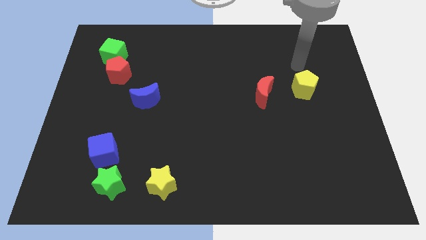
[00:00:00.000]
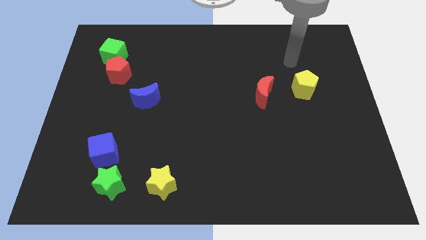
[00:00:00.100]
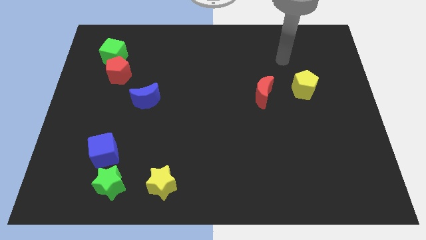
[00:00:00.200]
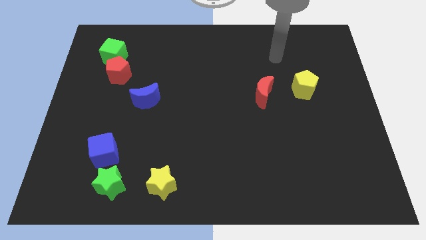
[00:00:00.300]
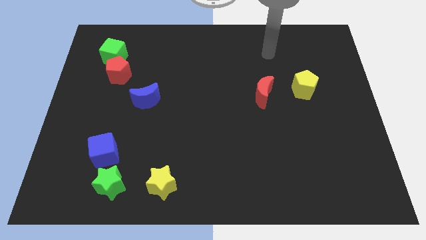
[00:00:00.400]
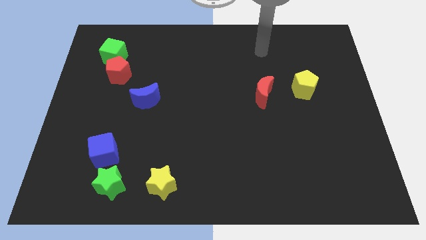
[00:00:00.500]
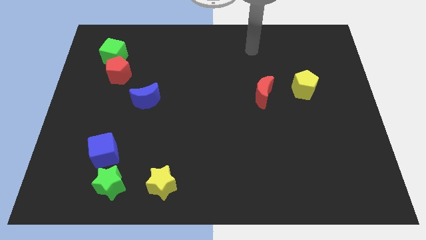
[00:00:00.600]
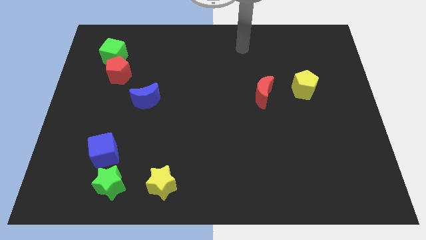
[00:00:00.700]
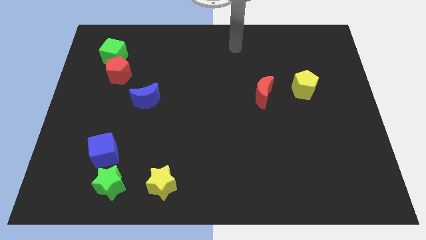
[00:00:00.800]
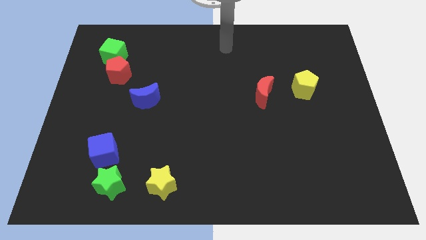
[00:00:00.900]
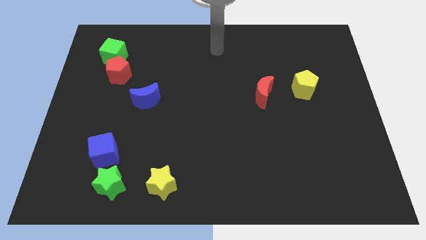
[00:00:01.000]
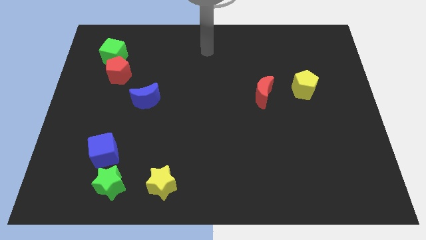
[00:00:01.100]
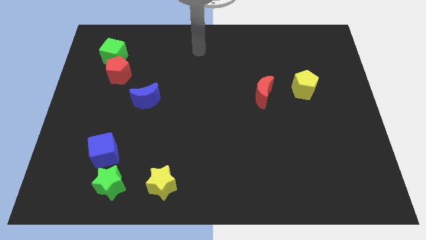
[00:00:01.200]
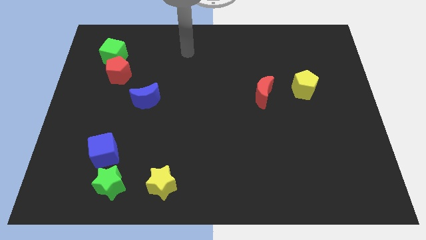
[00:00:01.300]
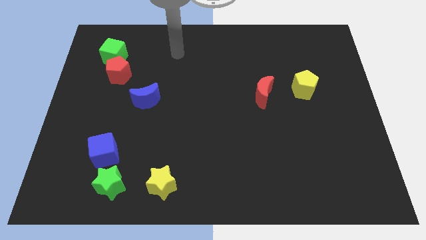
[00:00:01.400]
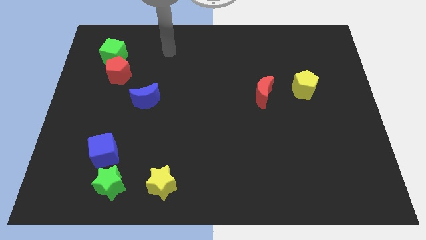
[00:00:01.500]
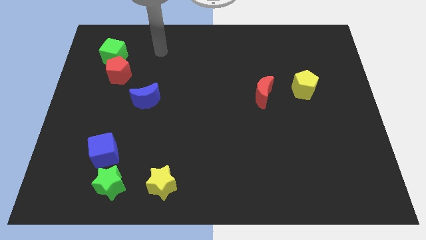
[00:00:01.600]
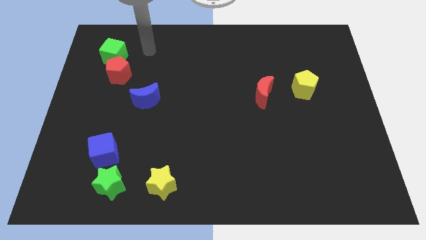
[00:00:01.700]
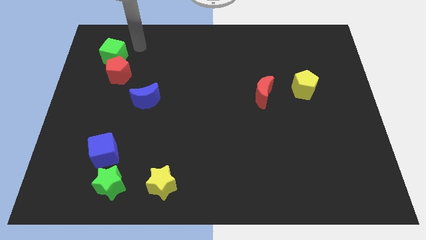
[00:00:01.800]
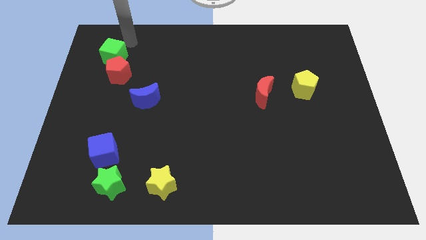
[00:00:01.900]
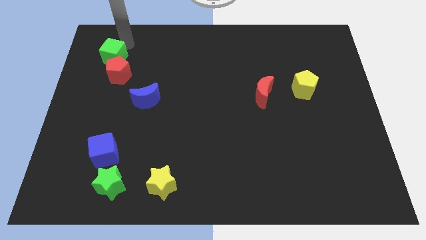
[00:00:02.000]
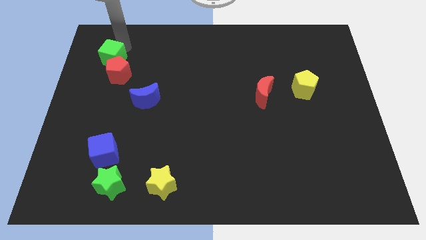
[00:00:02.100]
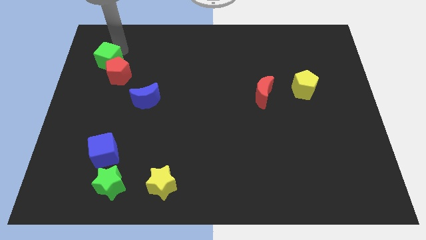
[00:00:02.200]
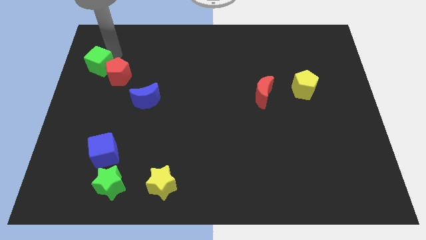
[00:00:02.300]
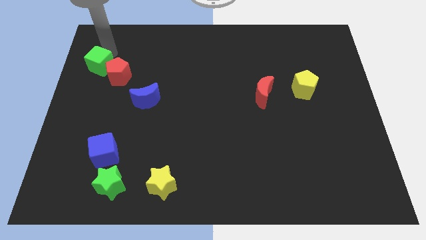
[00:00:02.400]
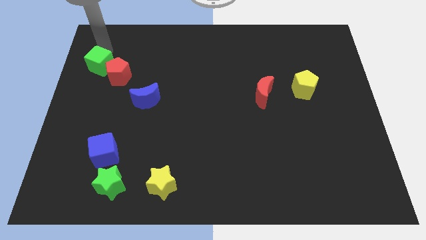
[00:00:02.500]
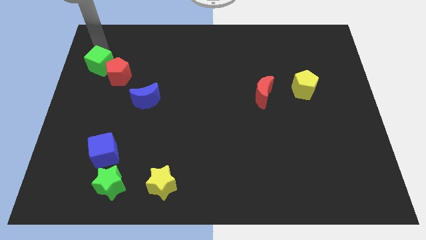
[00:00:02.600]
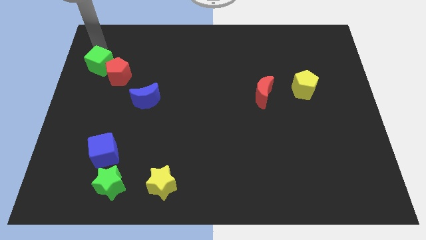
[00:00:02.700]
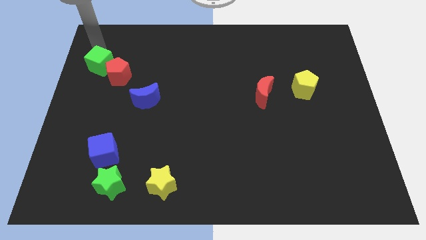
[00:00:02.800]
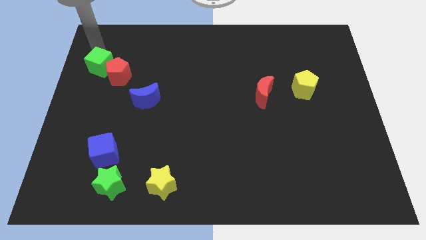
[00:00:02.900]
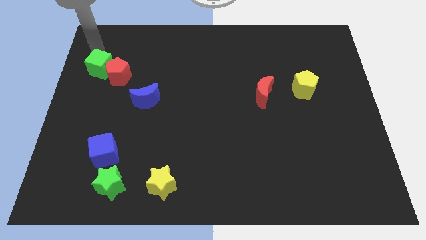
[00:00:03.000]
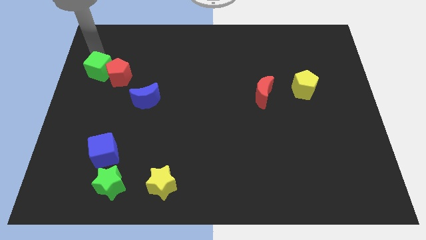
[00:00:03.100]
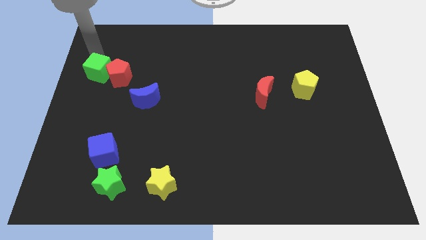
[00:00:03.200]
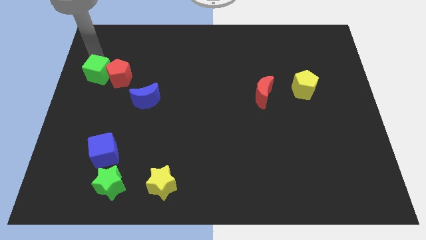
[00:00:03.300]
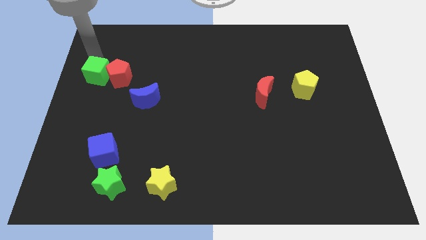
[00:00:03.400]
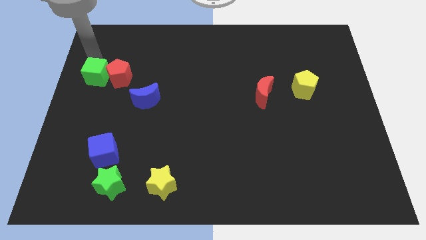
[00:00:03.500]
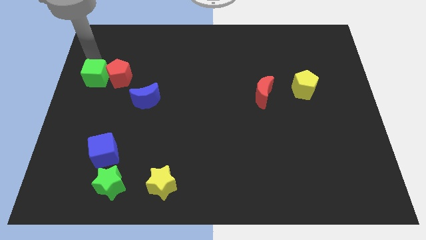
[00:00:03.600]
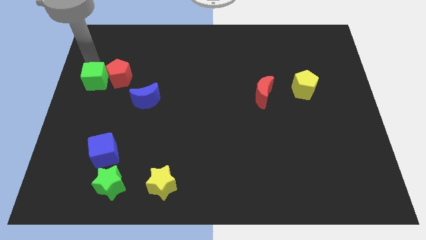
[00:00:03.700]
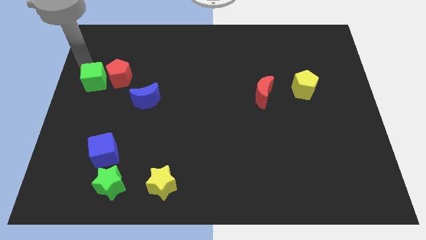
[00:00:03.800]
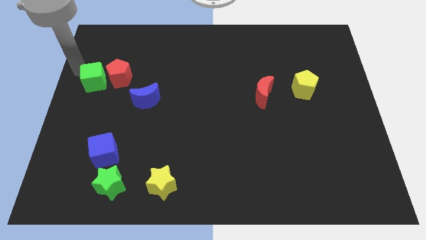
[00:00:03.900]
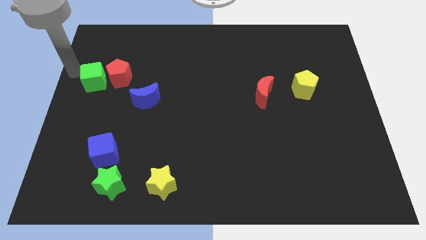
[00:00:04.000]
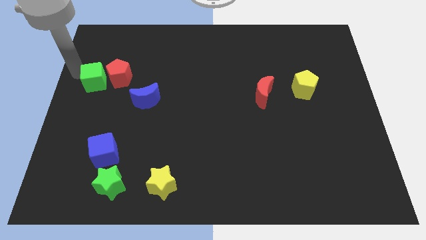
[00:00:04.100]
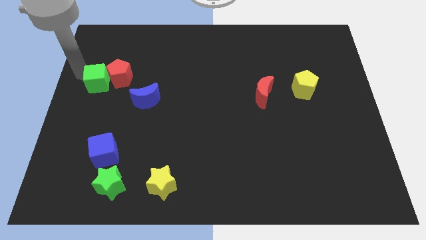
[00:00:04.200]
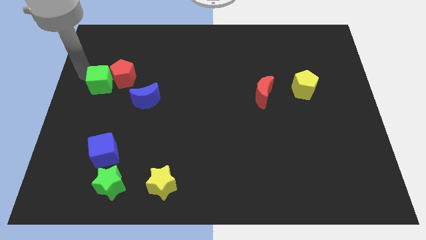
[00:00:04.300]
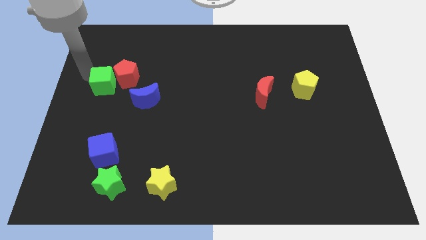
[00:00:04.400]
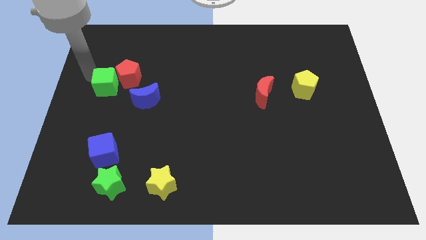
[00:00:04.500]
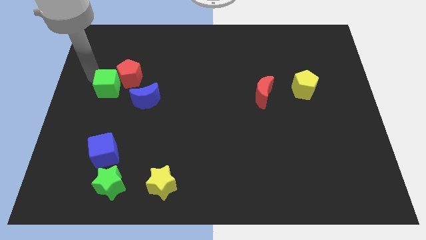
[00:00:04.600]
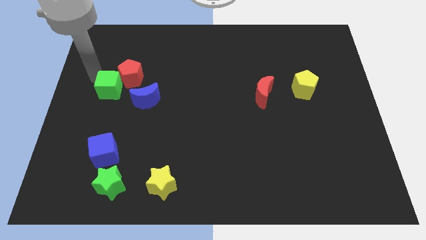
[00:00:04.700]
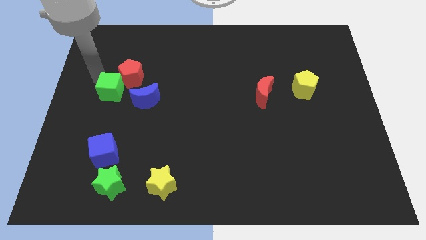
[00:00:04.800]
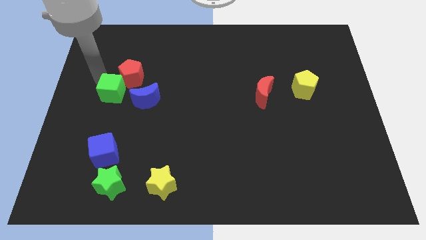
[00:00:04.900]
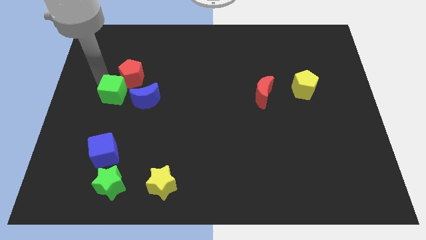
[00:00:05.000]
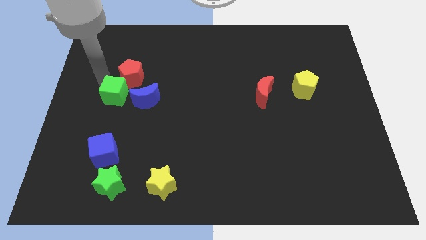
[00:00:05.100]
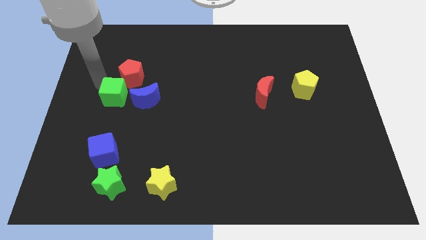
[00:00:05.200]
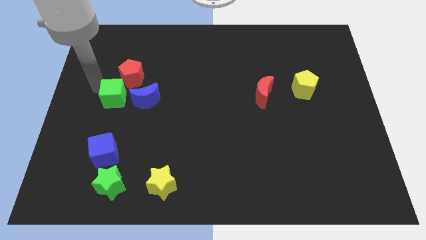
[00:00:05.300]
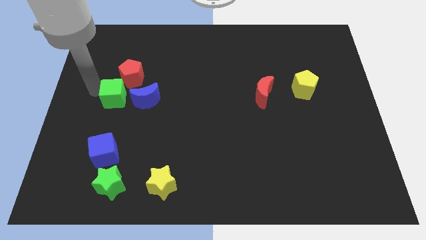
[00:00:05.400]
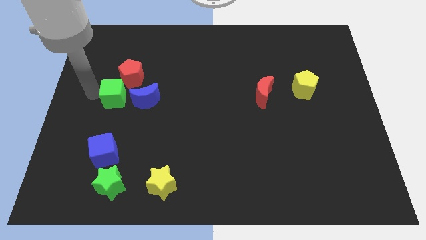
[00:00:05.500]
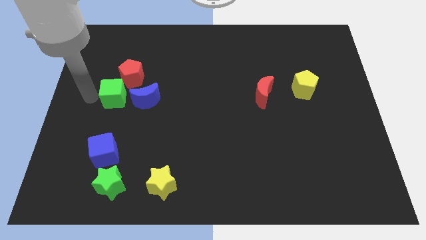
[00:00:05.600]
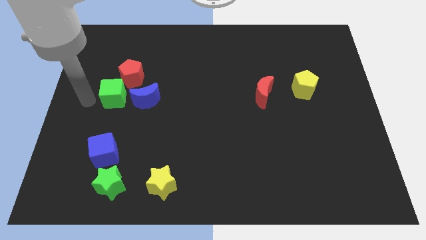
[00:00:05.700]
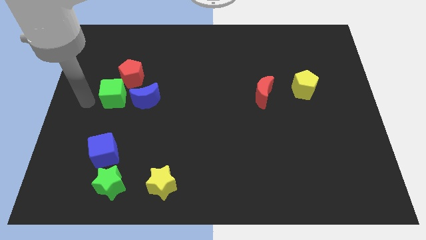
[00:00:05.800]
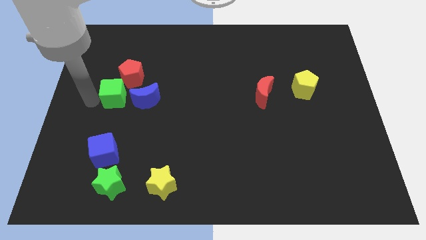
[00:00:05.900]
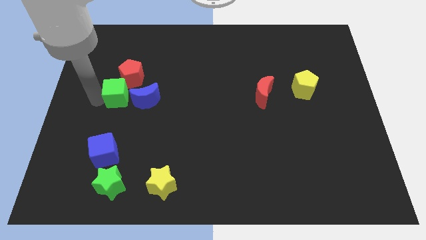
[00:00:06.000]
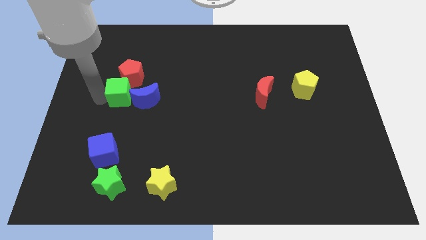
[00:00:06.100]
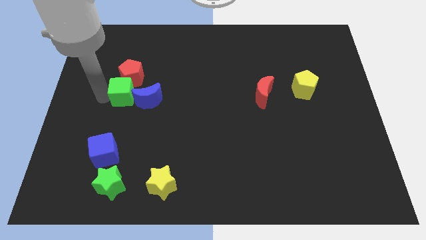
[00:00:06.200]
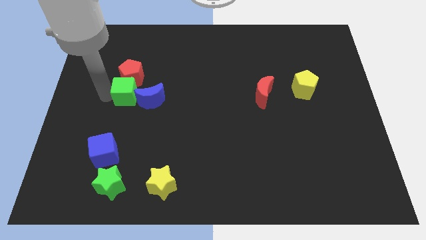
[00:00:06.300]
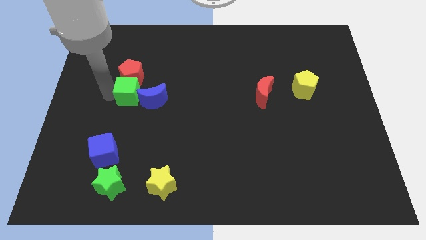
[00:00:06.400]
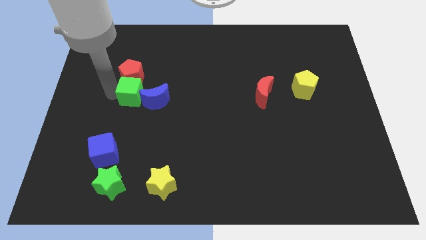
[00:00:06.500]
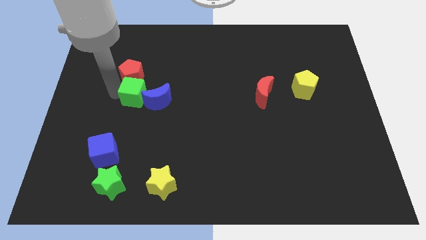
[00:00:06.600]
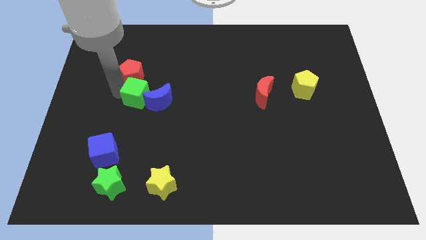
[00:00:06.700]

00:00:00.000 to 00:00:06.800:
put the green cube close to the blue moon

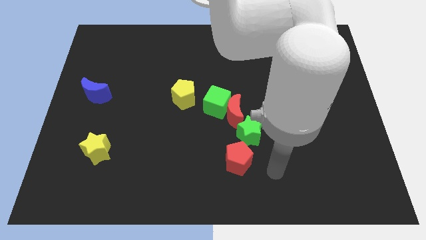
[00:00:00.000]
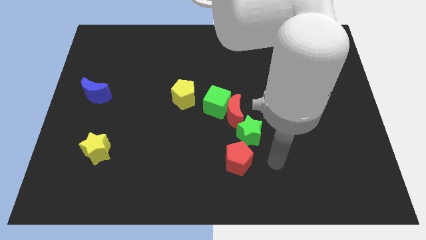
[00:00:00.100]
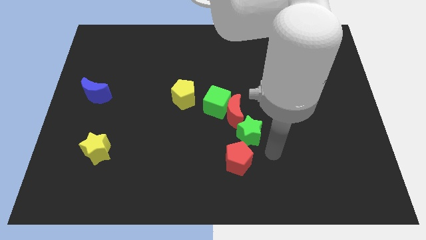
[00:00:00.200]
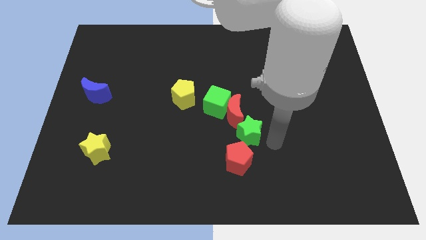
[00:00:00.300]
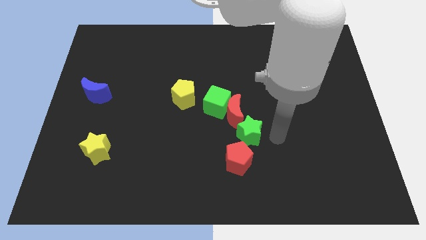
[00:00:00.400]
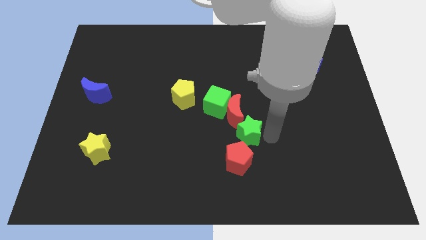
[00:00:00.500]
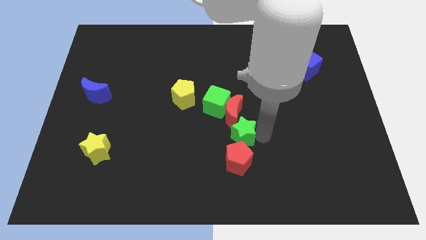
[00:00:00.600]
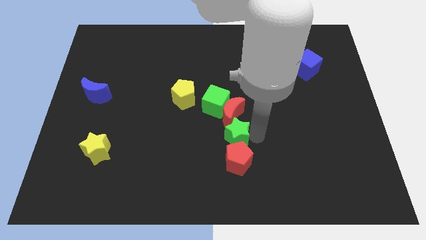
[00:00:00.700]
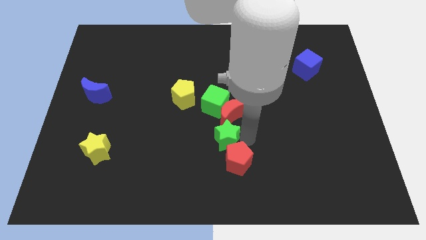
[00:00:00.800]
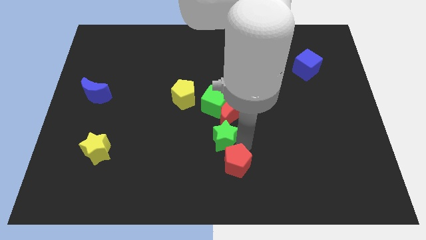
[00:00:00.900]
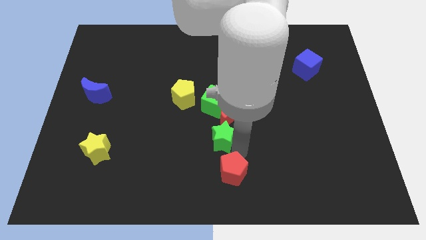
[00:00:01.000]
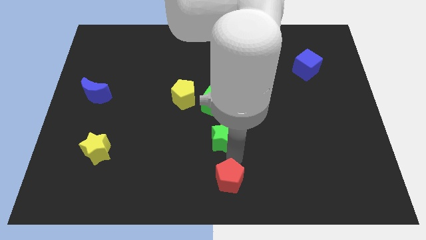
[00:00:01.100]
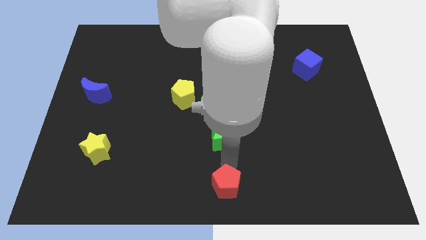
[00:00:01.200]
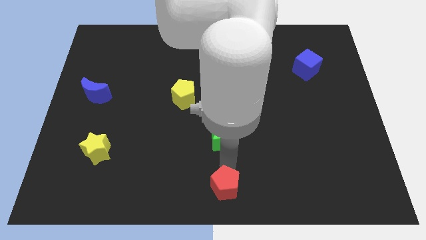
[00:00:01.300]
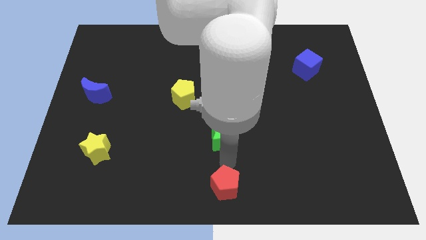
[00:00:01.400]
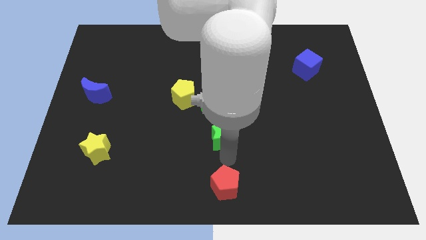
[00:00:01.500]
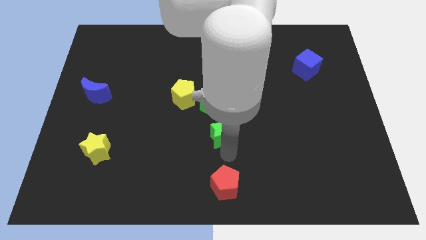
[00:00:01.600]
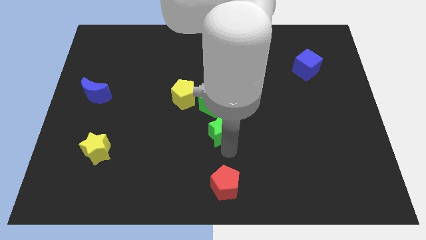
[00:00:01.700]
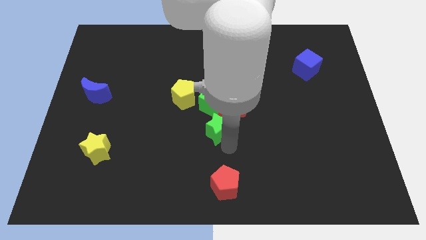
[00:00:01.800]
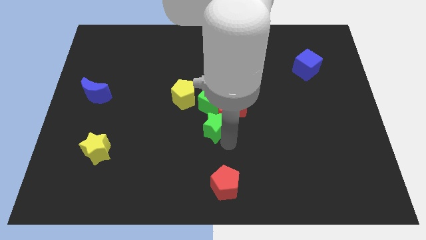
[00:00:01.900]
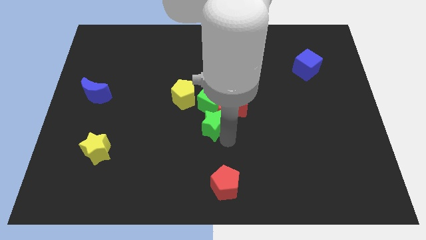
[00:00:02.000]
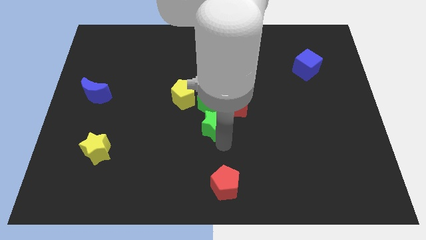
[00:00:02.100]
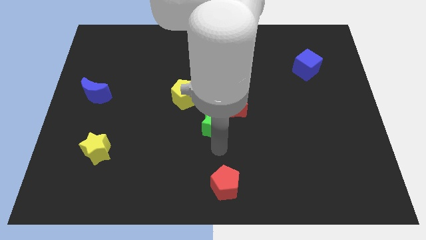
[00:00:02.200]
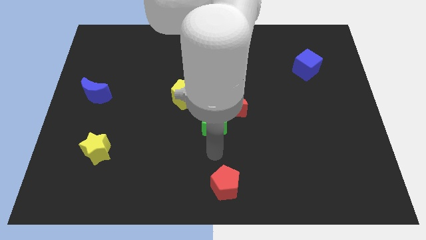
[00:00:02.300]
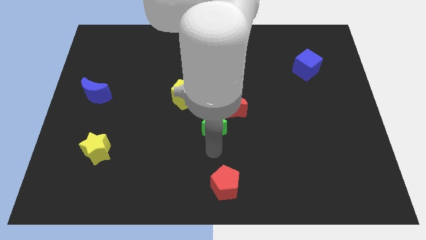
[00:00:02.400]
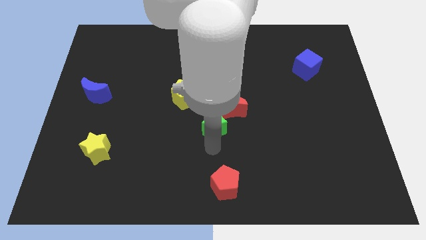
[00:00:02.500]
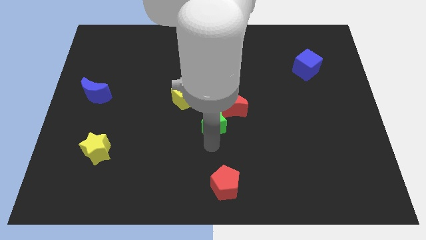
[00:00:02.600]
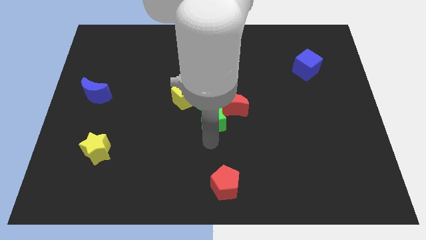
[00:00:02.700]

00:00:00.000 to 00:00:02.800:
put the green star to the green cube
